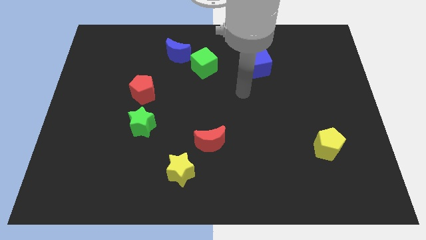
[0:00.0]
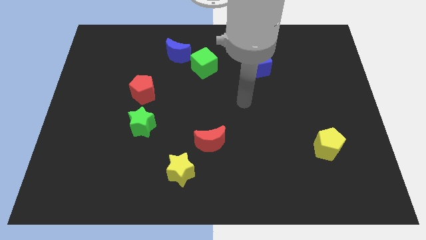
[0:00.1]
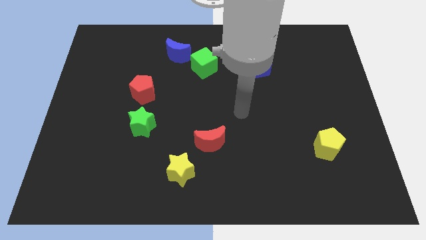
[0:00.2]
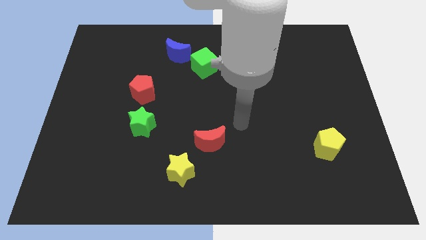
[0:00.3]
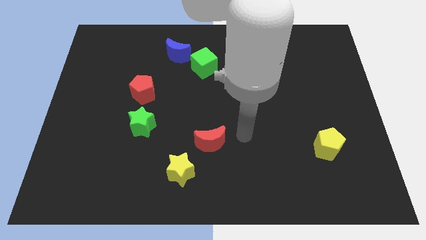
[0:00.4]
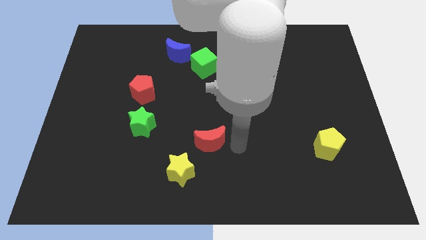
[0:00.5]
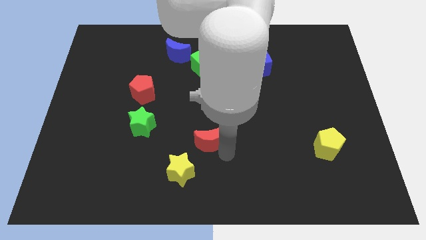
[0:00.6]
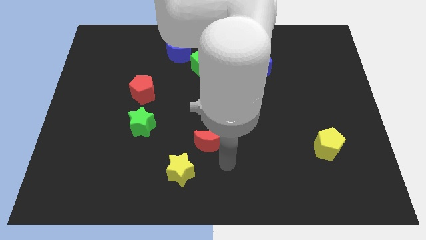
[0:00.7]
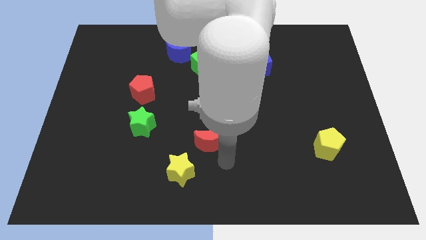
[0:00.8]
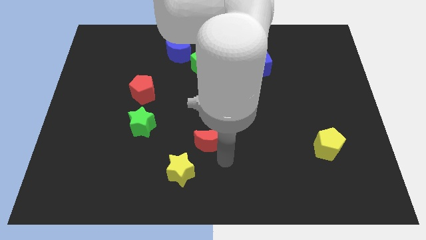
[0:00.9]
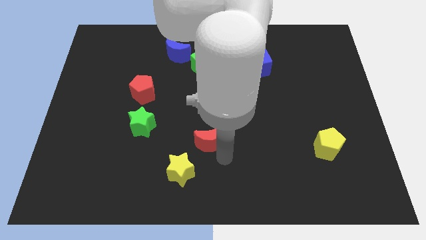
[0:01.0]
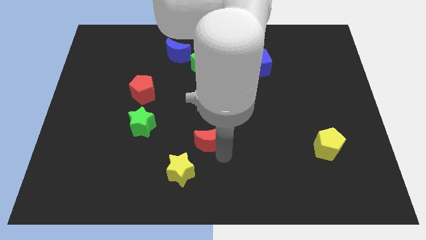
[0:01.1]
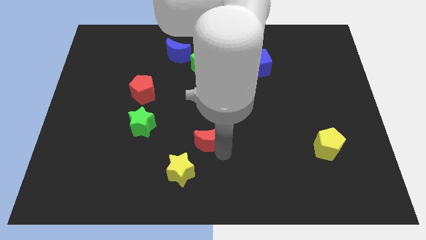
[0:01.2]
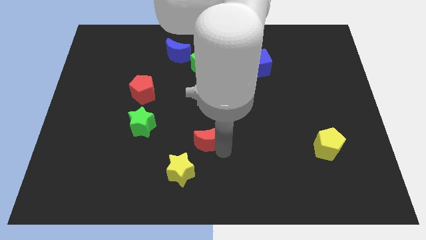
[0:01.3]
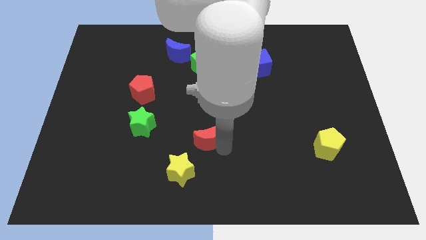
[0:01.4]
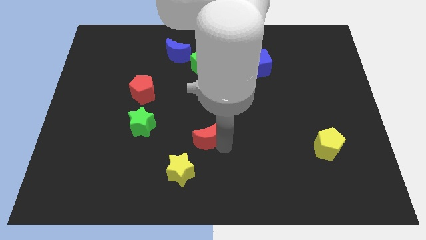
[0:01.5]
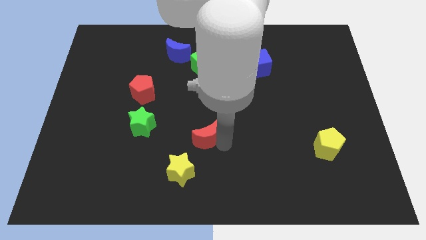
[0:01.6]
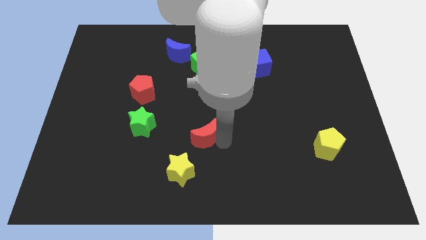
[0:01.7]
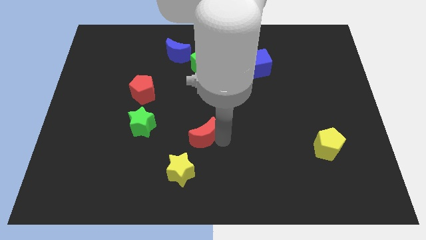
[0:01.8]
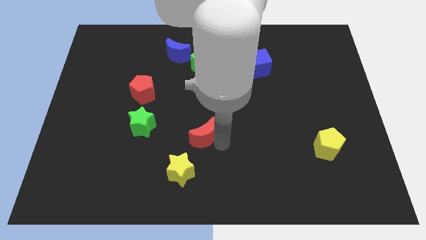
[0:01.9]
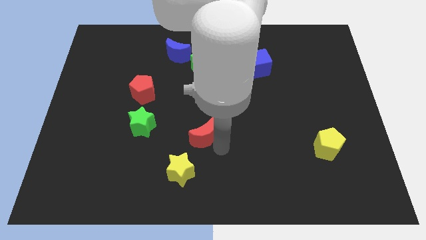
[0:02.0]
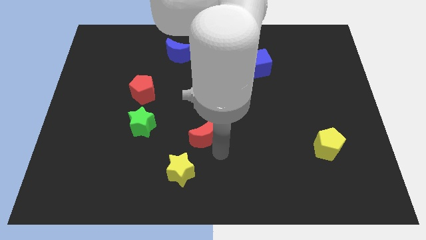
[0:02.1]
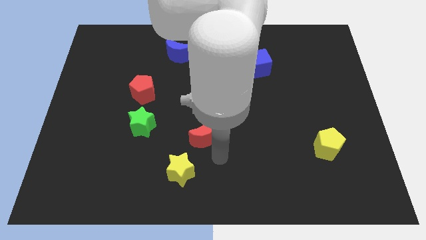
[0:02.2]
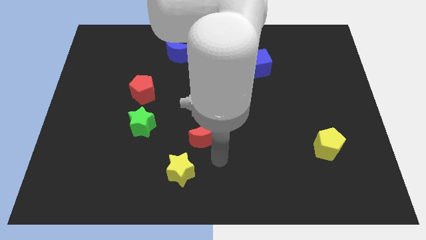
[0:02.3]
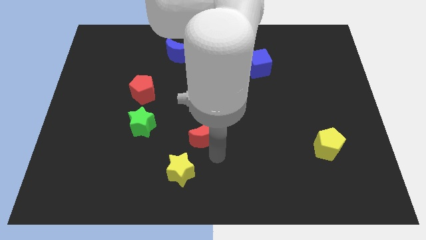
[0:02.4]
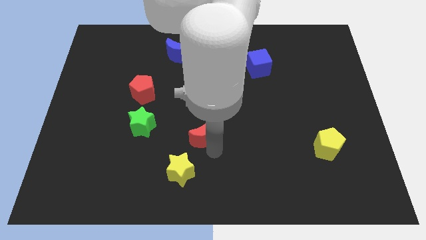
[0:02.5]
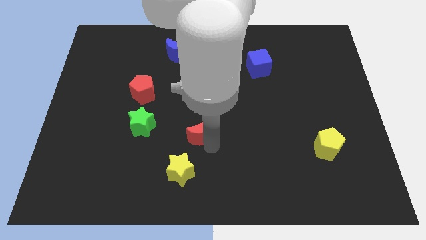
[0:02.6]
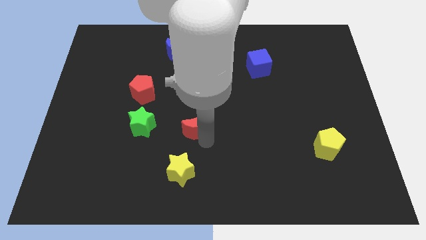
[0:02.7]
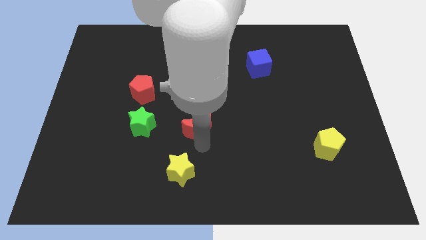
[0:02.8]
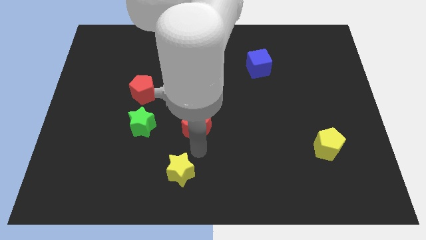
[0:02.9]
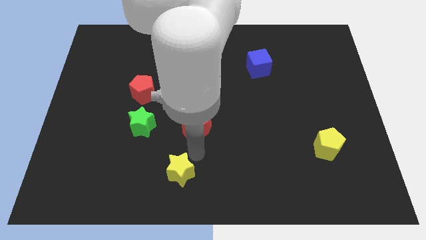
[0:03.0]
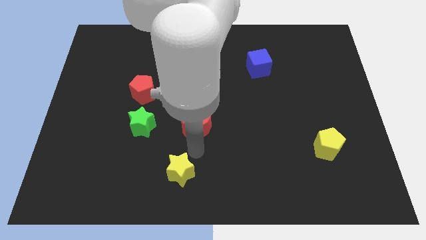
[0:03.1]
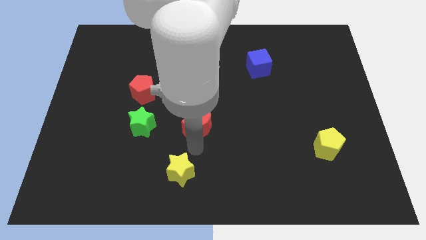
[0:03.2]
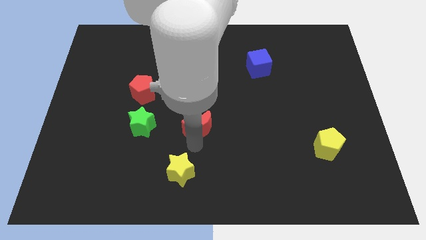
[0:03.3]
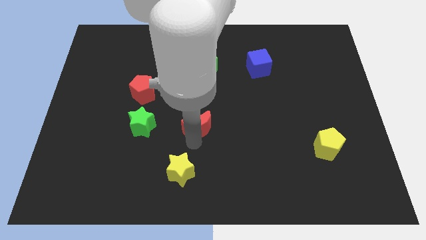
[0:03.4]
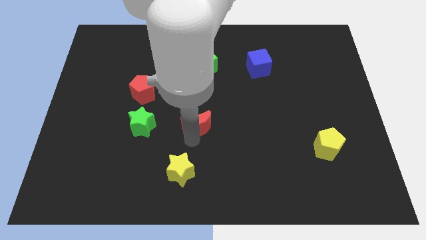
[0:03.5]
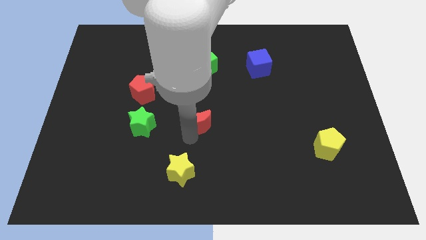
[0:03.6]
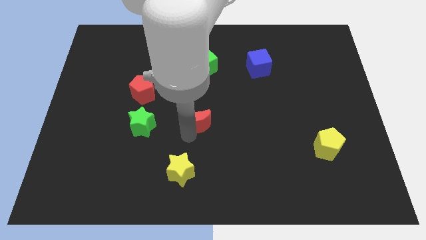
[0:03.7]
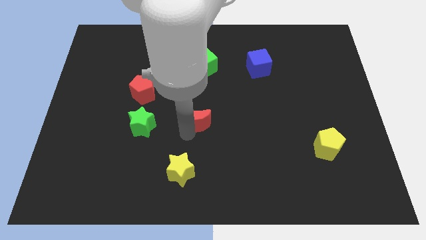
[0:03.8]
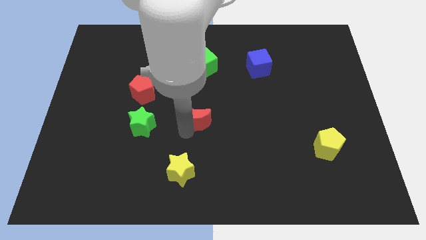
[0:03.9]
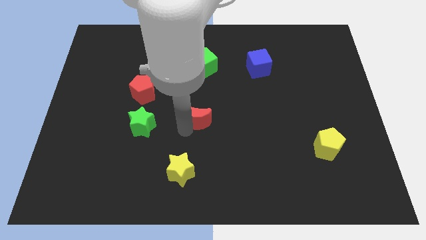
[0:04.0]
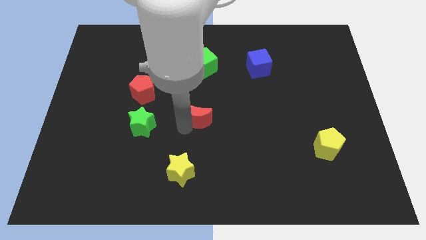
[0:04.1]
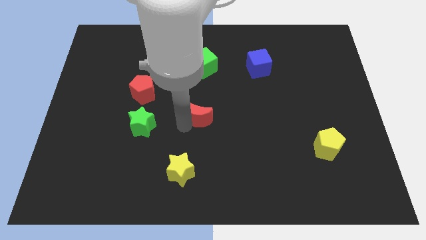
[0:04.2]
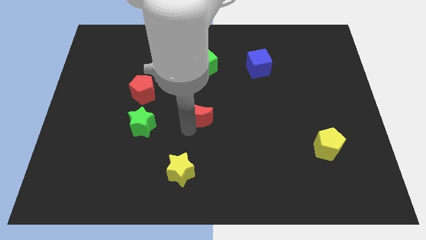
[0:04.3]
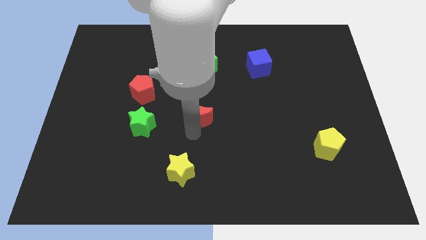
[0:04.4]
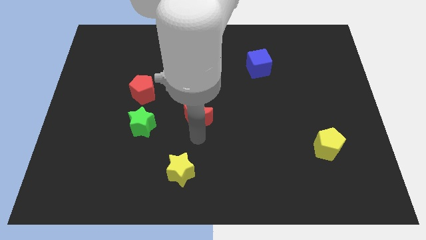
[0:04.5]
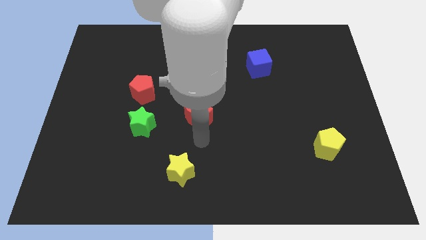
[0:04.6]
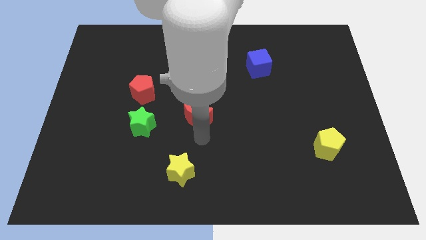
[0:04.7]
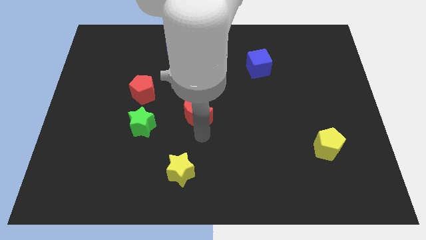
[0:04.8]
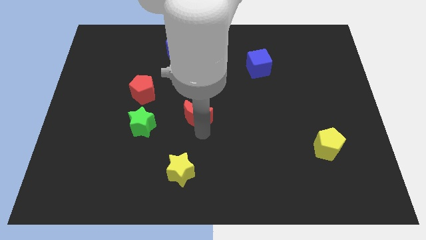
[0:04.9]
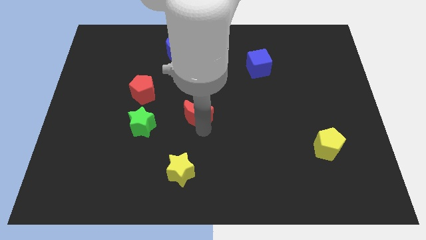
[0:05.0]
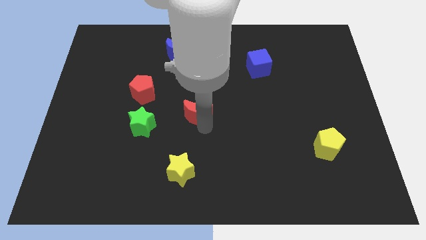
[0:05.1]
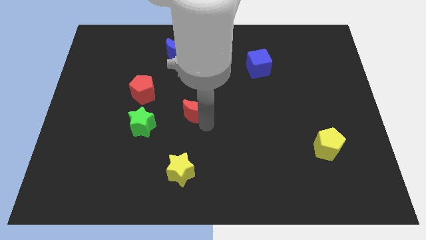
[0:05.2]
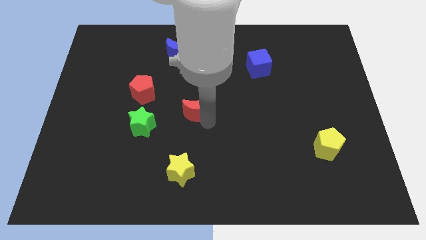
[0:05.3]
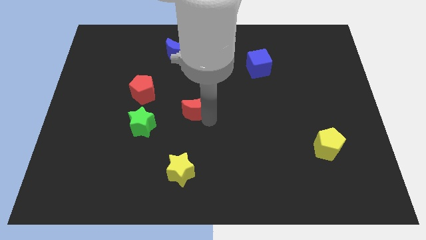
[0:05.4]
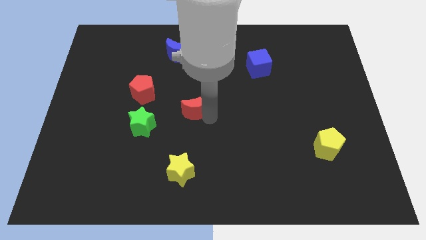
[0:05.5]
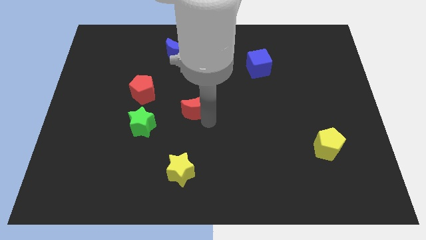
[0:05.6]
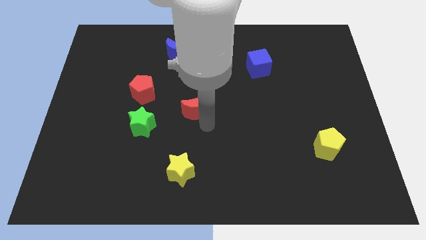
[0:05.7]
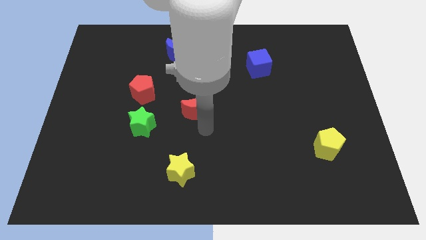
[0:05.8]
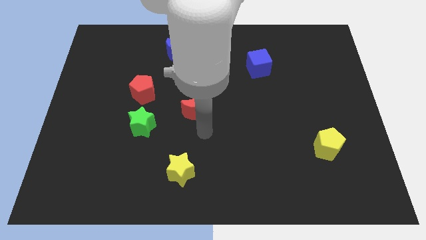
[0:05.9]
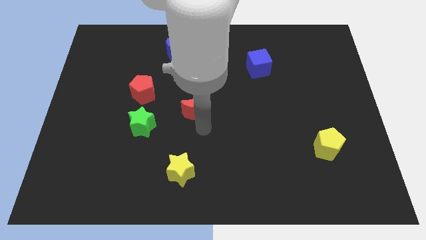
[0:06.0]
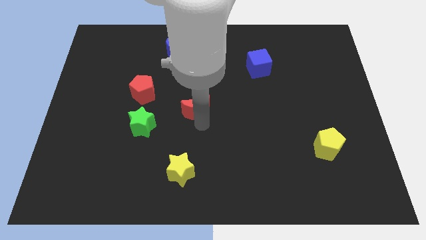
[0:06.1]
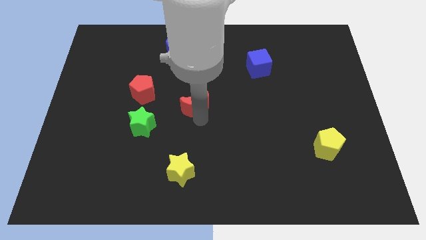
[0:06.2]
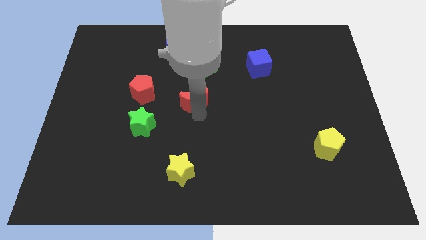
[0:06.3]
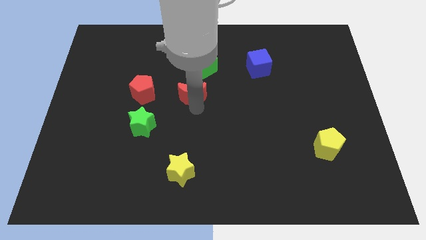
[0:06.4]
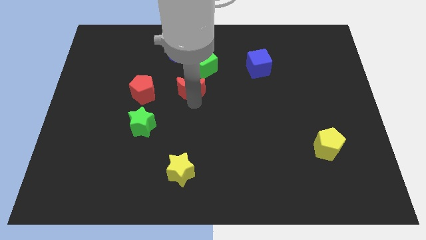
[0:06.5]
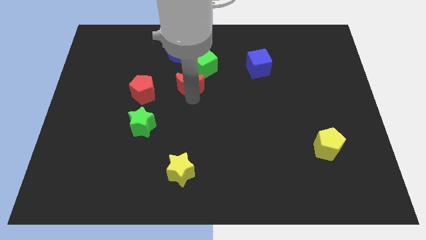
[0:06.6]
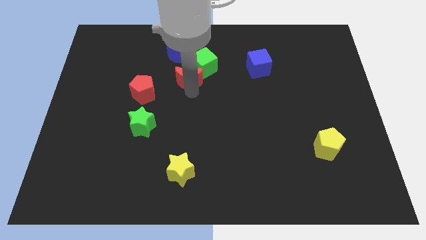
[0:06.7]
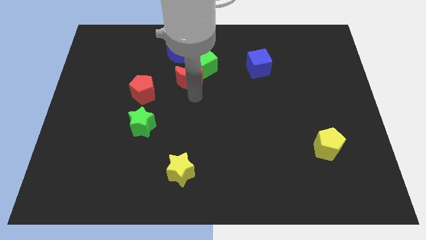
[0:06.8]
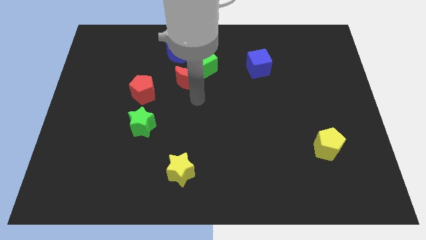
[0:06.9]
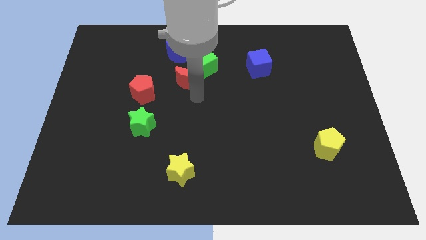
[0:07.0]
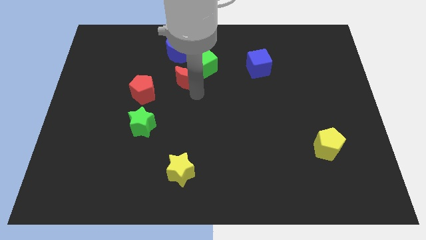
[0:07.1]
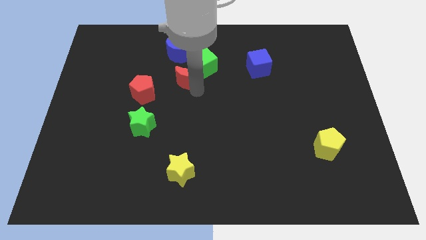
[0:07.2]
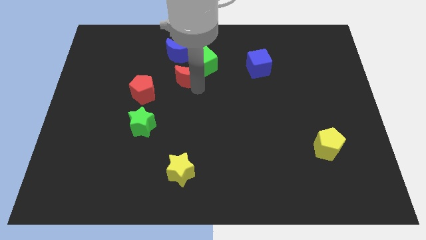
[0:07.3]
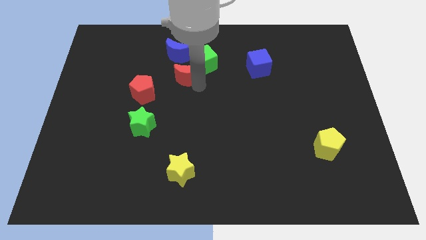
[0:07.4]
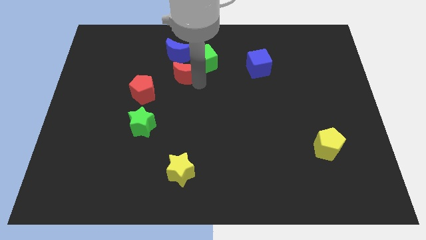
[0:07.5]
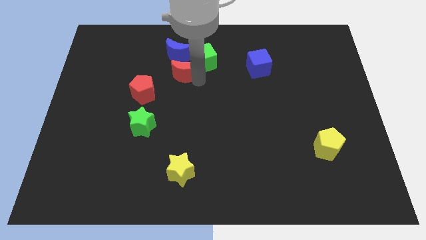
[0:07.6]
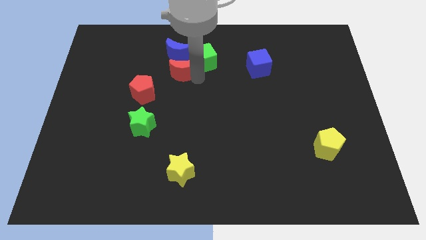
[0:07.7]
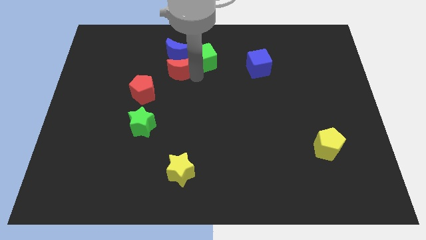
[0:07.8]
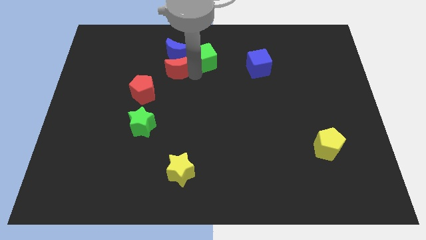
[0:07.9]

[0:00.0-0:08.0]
slide the red moon towards the blue moon
